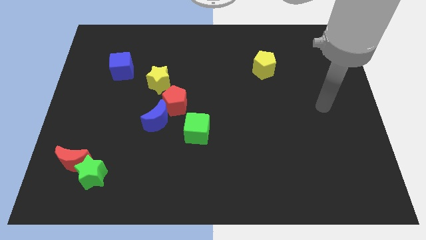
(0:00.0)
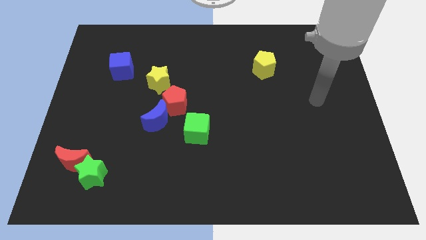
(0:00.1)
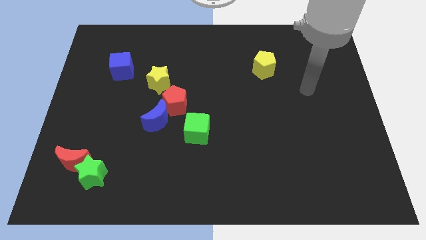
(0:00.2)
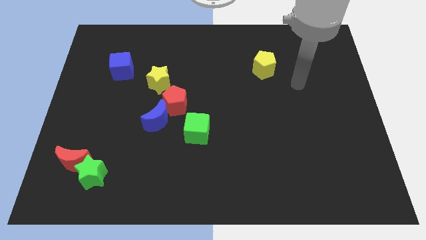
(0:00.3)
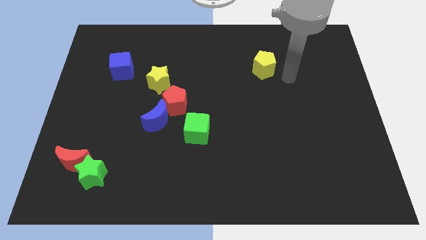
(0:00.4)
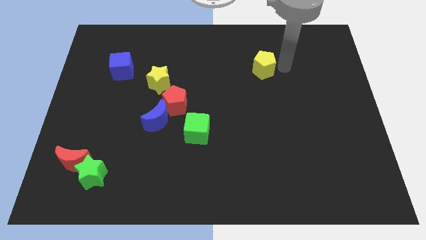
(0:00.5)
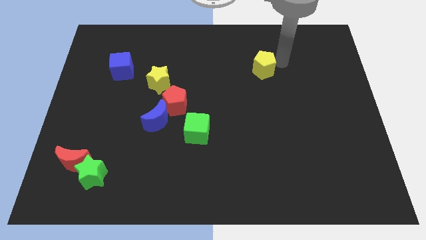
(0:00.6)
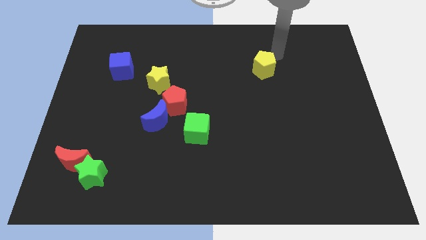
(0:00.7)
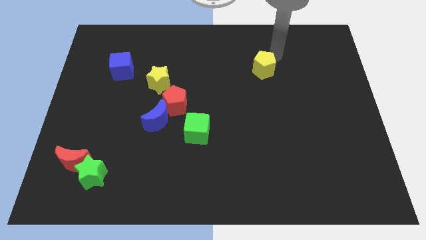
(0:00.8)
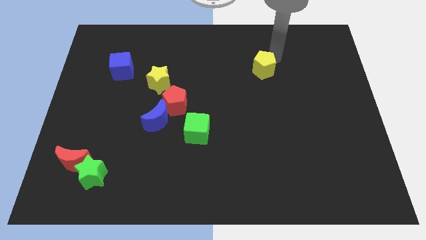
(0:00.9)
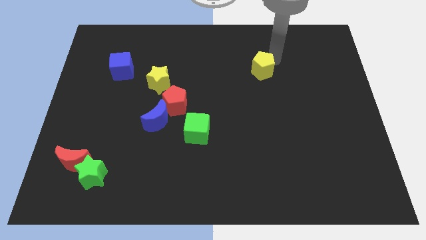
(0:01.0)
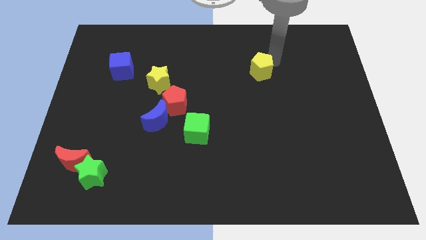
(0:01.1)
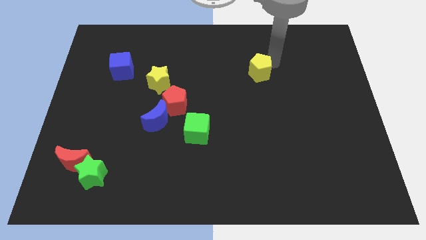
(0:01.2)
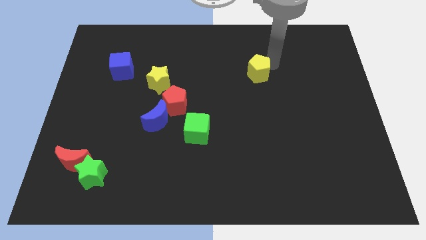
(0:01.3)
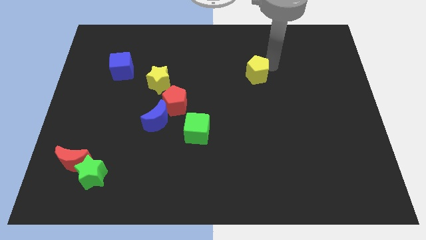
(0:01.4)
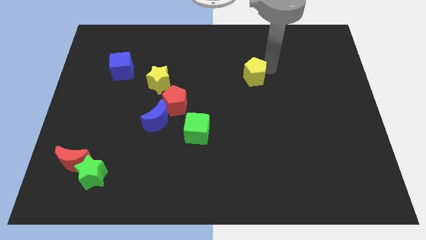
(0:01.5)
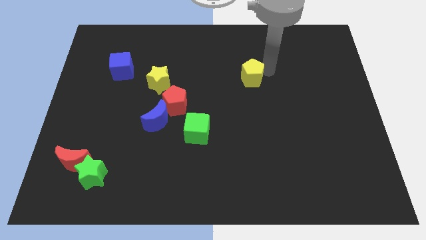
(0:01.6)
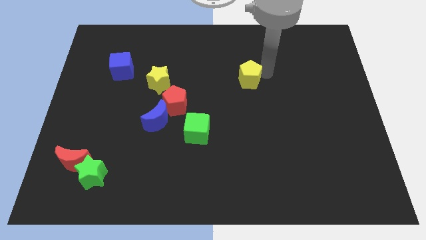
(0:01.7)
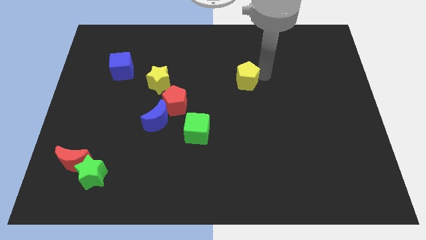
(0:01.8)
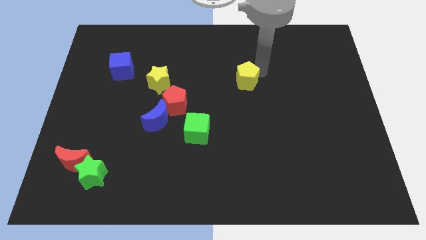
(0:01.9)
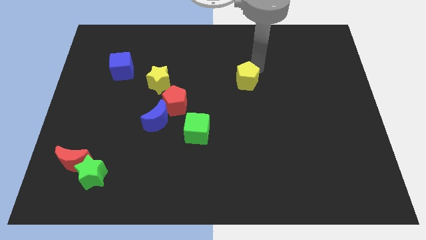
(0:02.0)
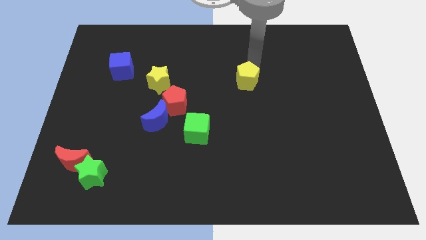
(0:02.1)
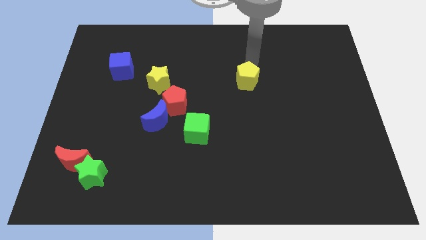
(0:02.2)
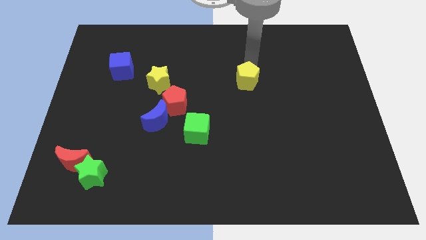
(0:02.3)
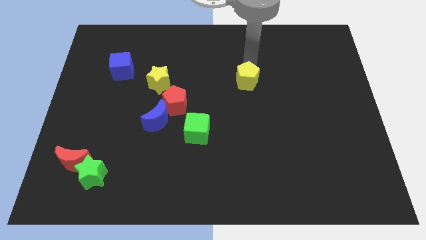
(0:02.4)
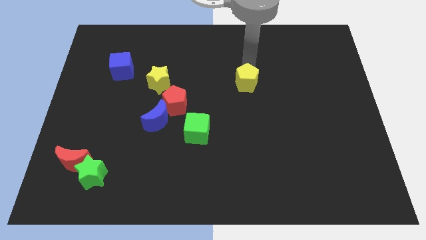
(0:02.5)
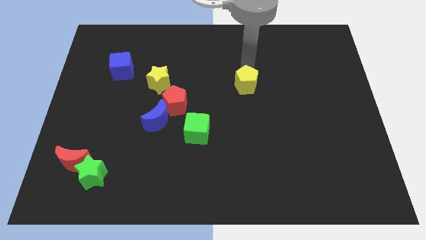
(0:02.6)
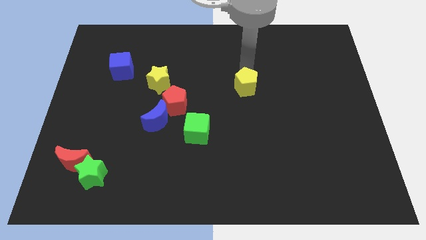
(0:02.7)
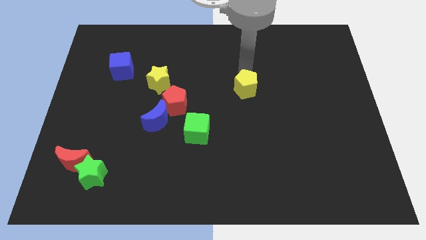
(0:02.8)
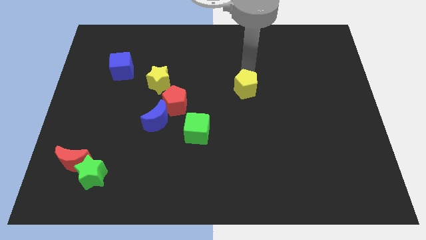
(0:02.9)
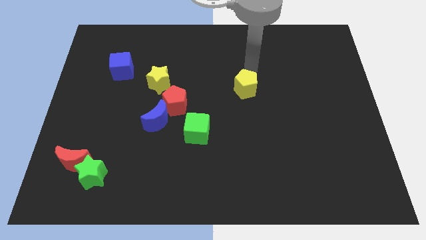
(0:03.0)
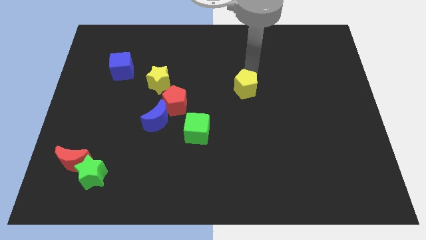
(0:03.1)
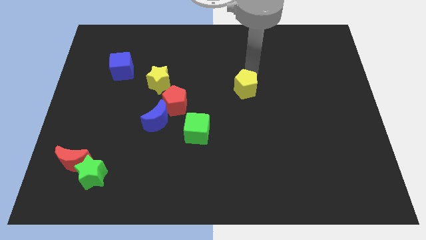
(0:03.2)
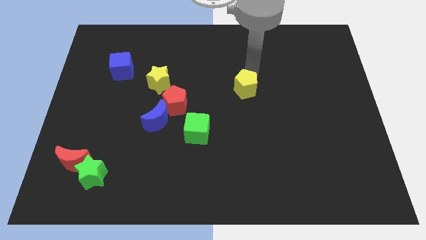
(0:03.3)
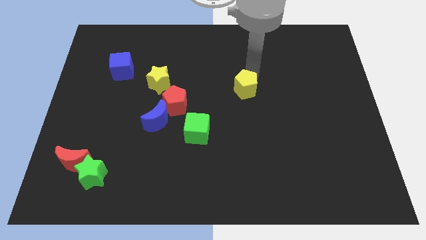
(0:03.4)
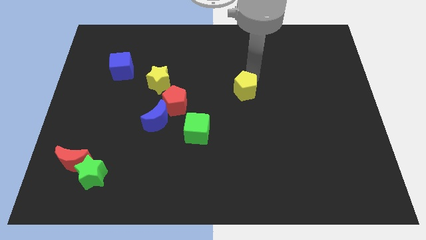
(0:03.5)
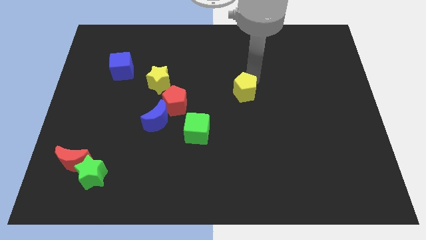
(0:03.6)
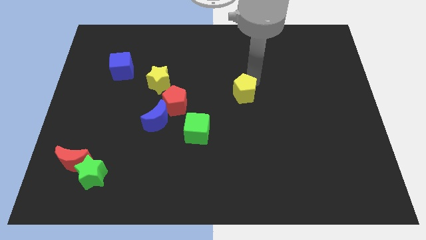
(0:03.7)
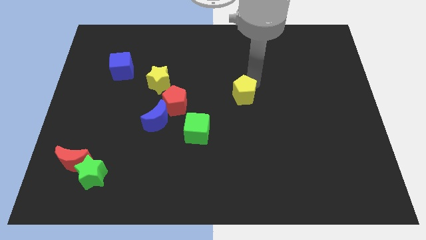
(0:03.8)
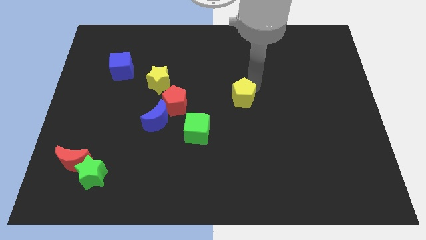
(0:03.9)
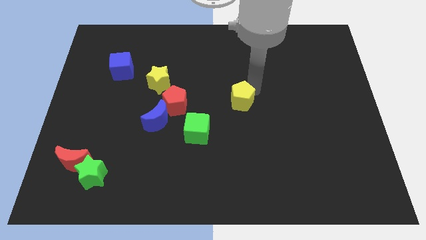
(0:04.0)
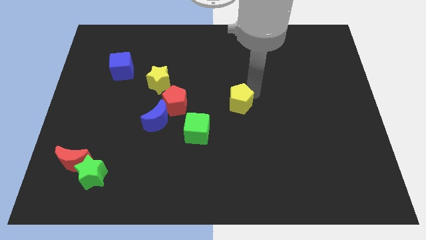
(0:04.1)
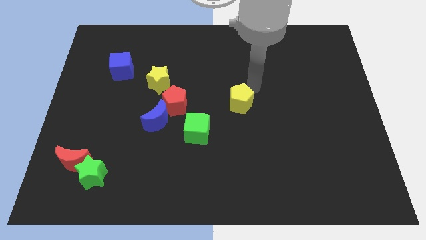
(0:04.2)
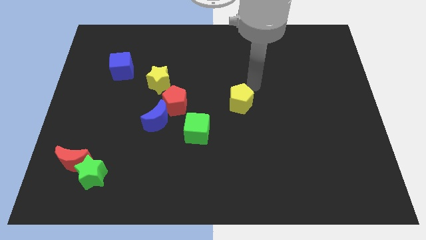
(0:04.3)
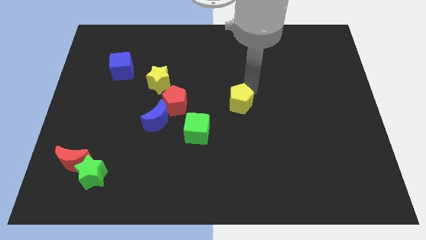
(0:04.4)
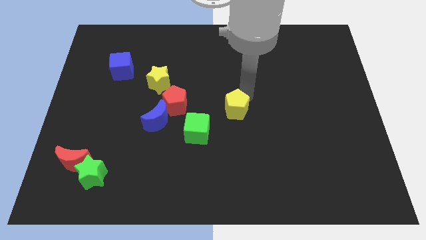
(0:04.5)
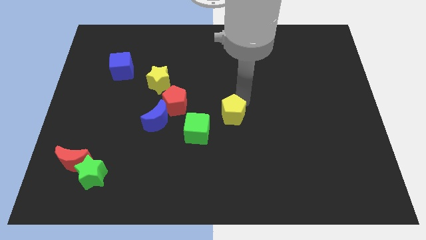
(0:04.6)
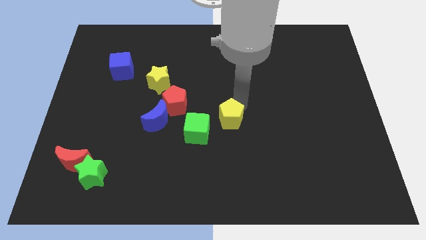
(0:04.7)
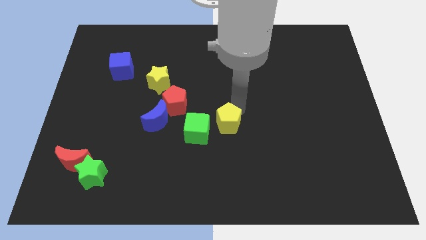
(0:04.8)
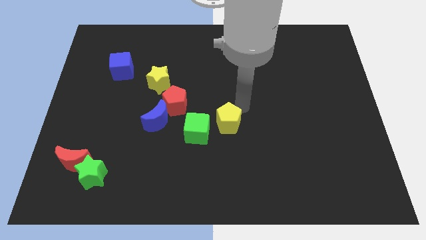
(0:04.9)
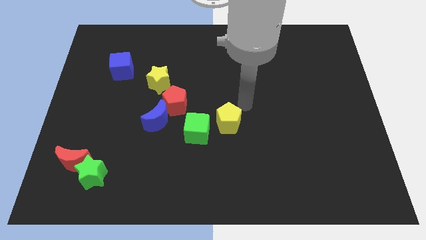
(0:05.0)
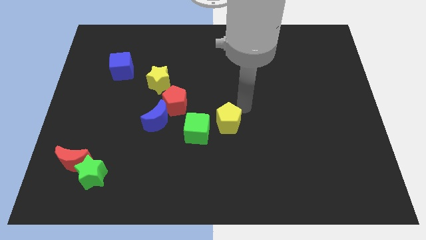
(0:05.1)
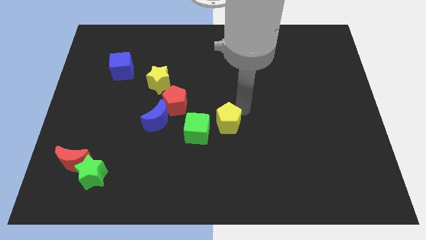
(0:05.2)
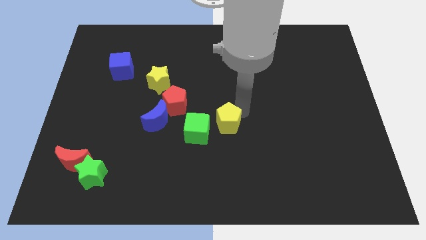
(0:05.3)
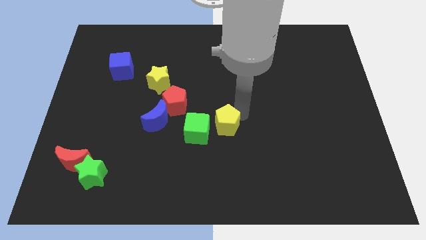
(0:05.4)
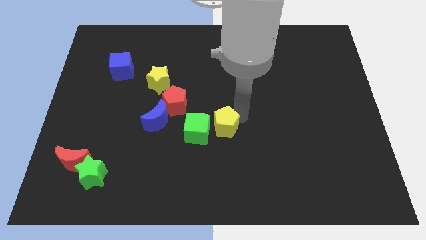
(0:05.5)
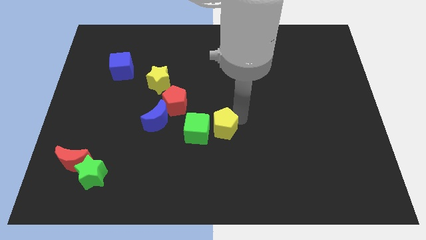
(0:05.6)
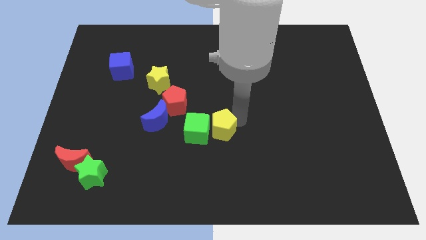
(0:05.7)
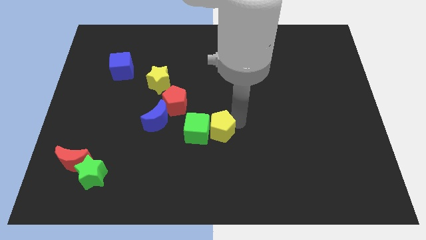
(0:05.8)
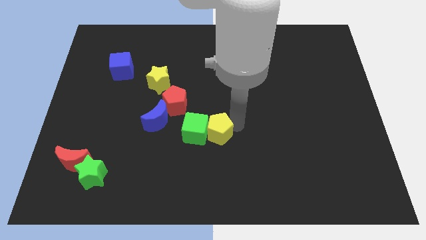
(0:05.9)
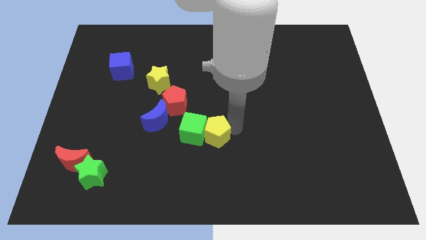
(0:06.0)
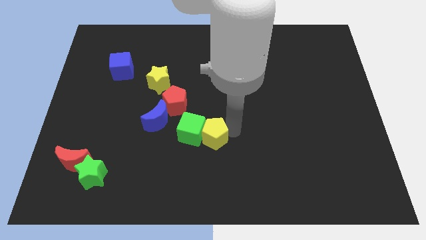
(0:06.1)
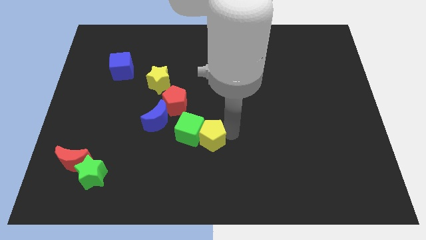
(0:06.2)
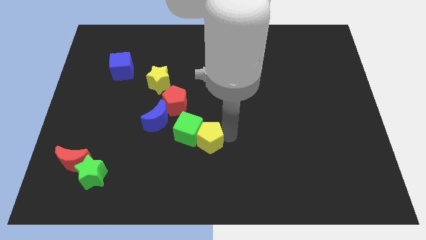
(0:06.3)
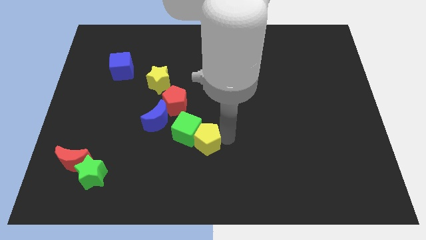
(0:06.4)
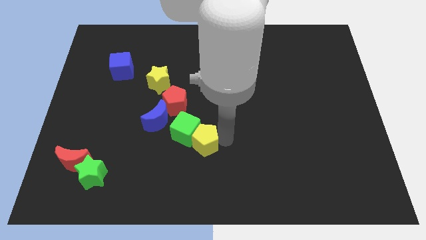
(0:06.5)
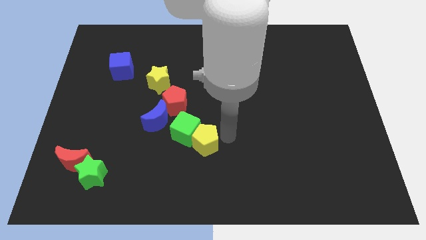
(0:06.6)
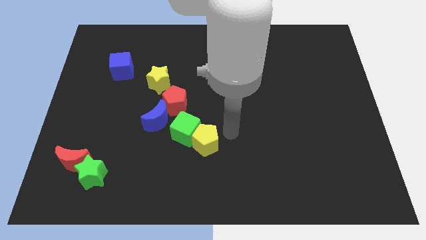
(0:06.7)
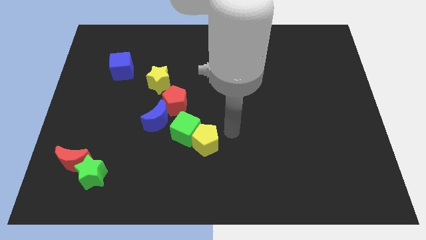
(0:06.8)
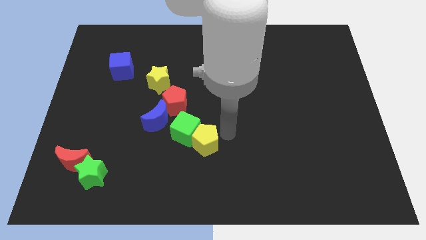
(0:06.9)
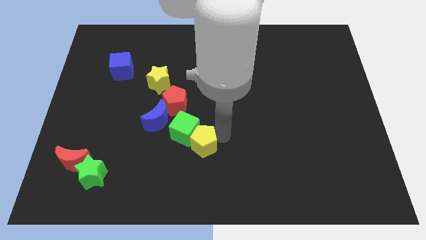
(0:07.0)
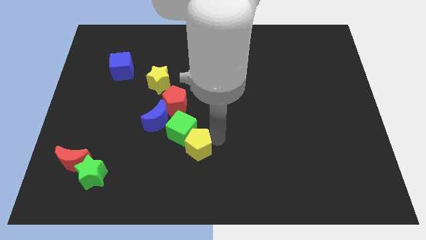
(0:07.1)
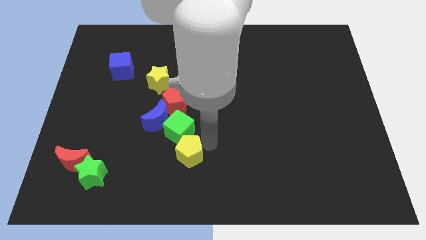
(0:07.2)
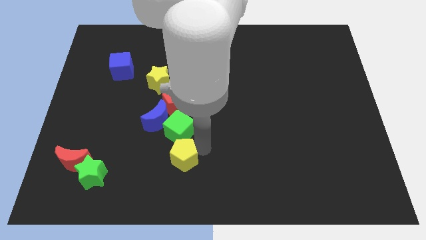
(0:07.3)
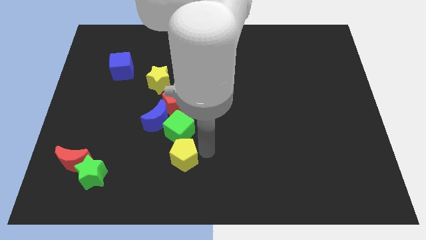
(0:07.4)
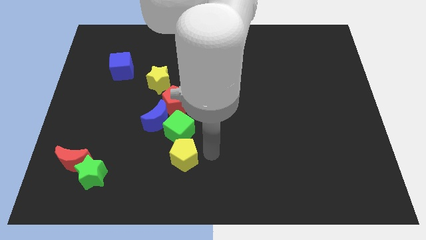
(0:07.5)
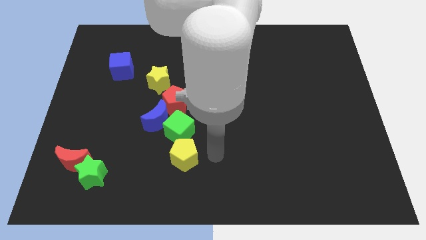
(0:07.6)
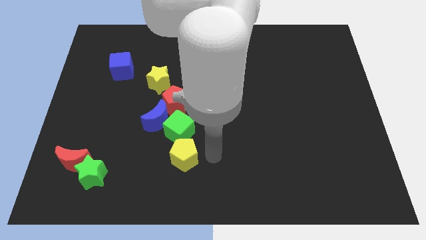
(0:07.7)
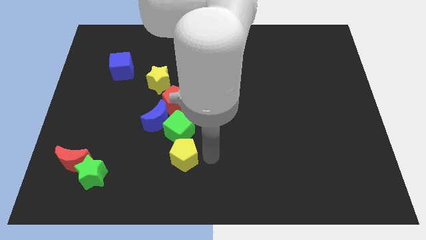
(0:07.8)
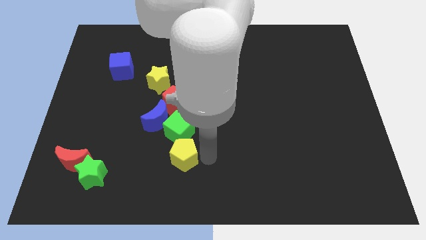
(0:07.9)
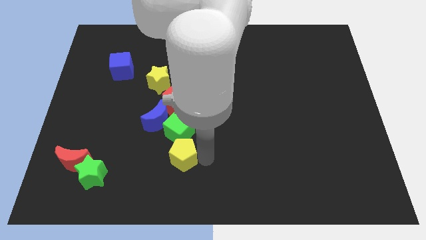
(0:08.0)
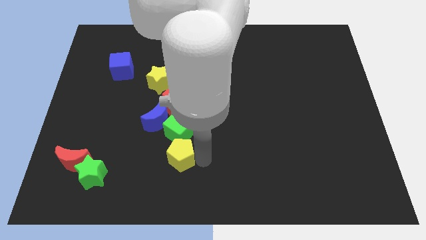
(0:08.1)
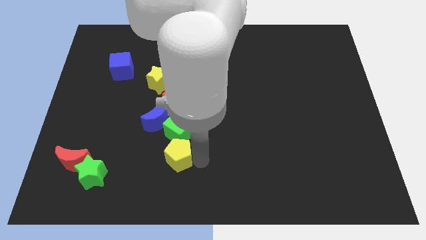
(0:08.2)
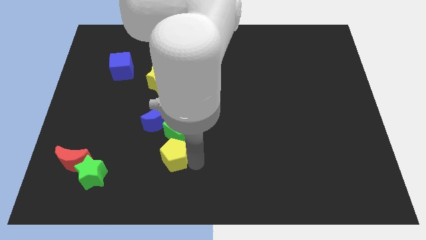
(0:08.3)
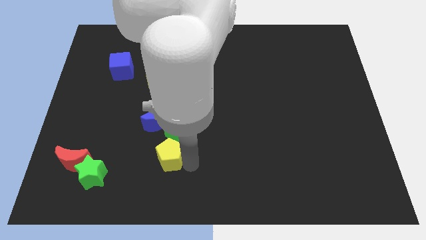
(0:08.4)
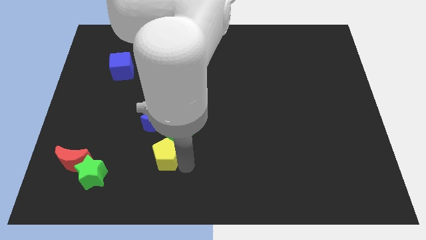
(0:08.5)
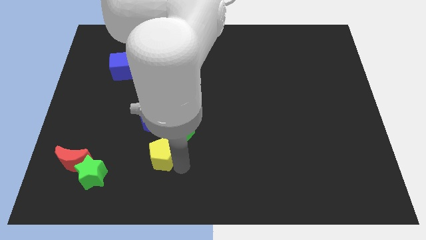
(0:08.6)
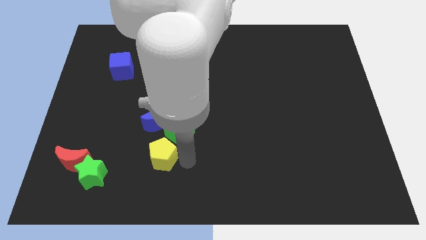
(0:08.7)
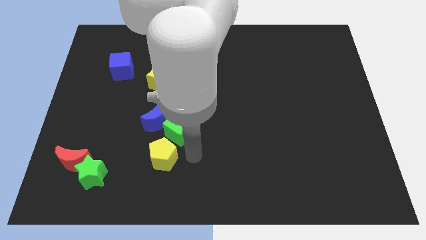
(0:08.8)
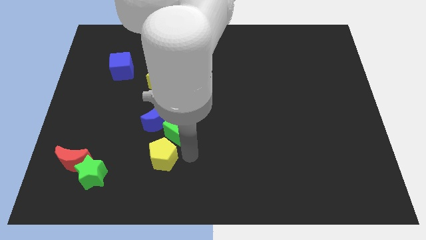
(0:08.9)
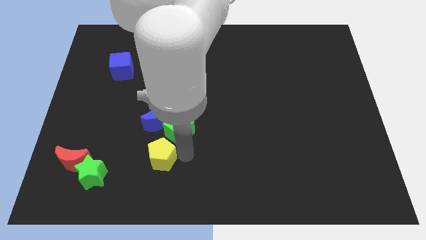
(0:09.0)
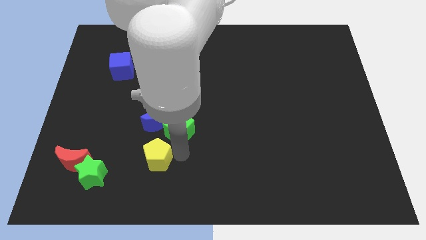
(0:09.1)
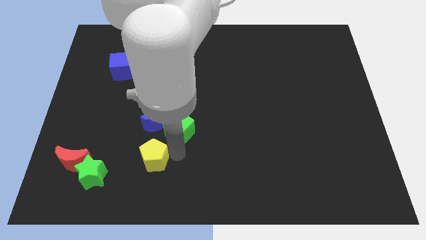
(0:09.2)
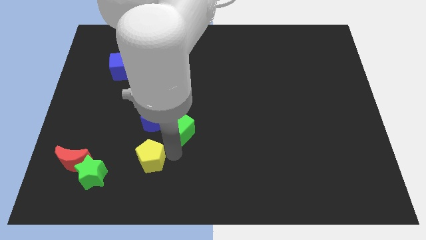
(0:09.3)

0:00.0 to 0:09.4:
put the yellow pentagon to the right side of the red moon
